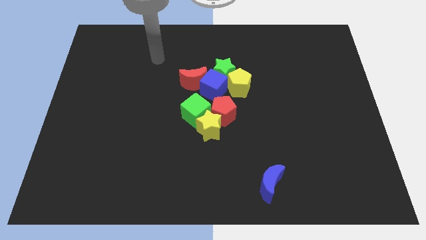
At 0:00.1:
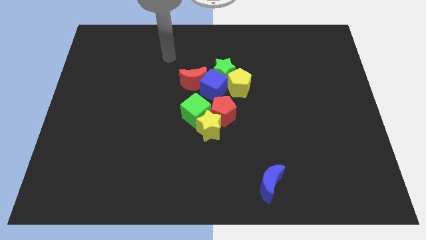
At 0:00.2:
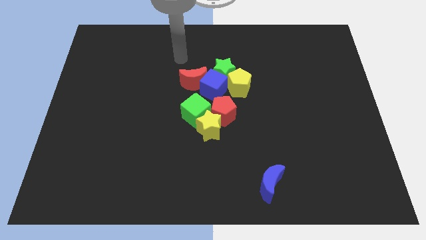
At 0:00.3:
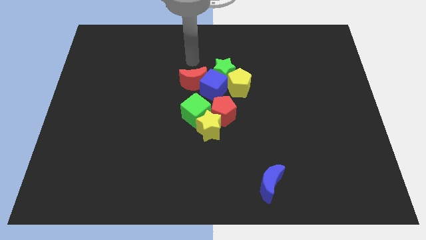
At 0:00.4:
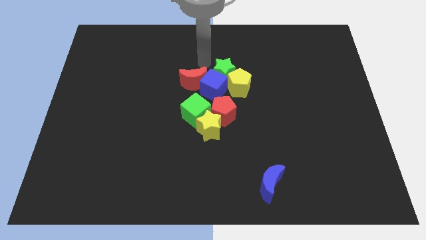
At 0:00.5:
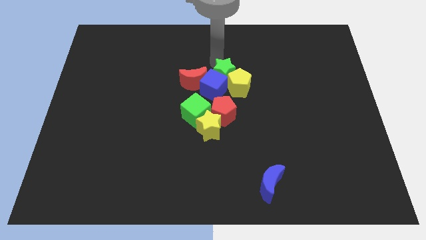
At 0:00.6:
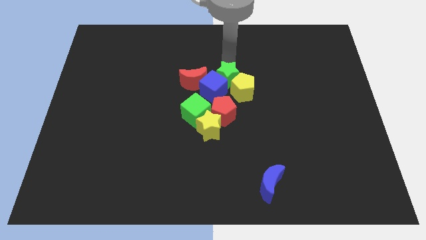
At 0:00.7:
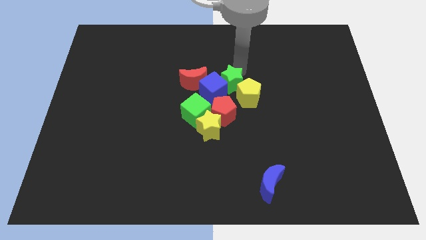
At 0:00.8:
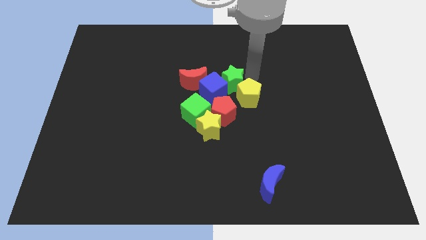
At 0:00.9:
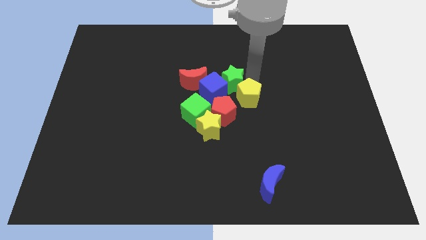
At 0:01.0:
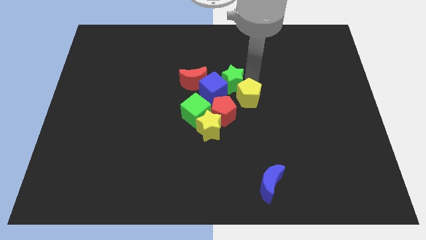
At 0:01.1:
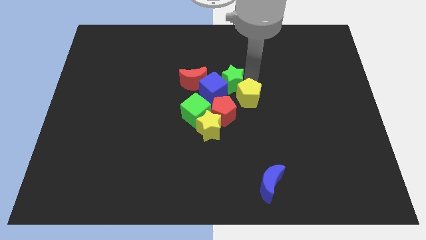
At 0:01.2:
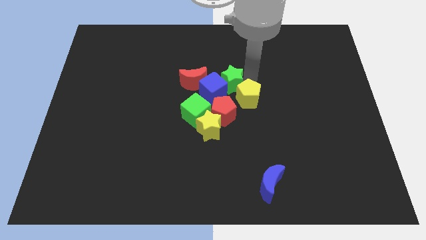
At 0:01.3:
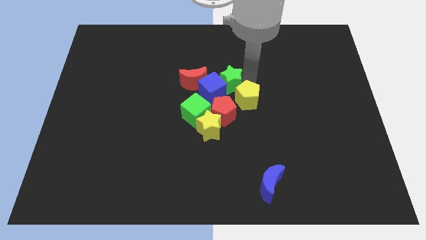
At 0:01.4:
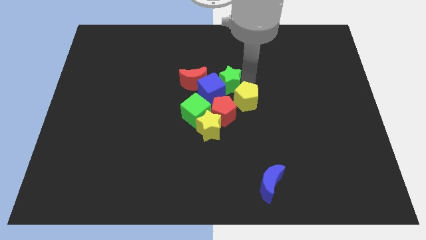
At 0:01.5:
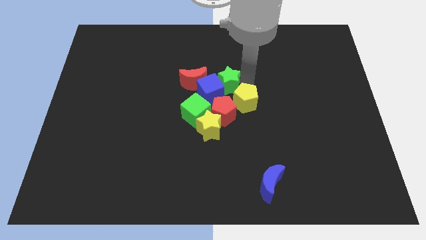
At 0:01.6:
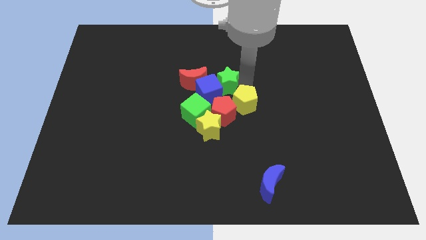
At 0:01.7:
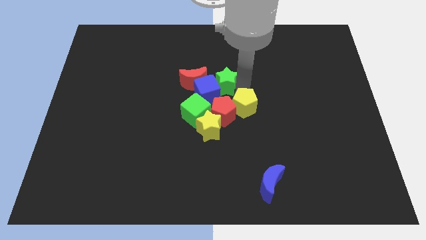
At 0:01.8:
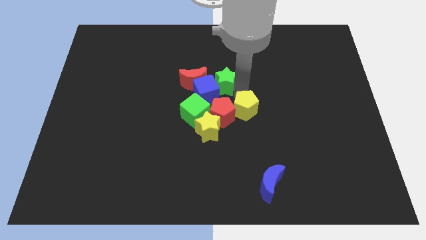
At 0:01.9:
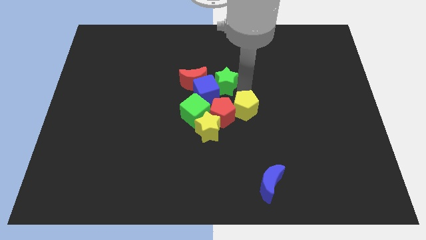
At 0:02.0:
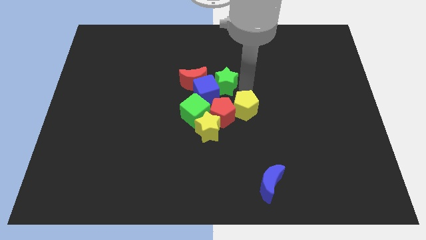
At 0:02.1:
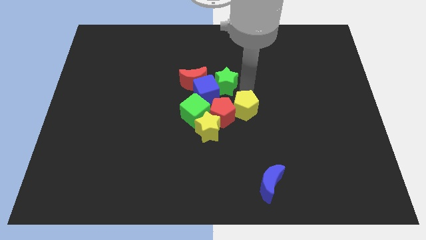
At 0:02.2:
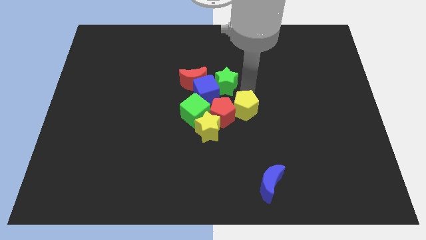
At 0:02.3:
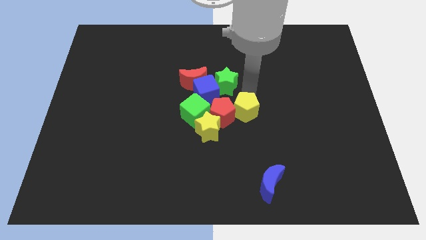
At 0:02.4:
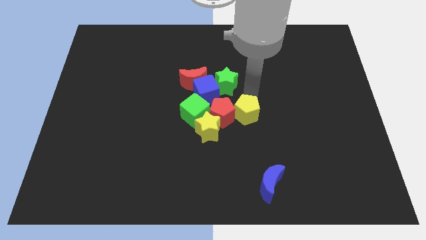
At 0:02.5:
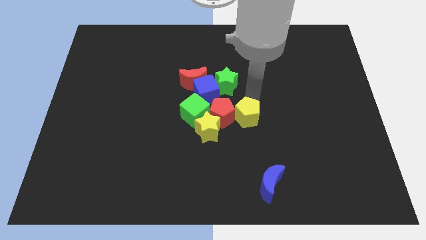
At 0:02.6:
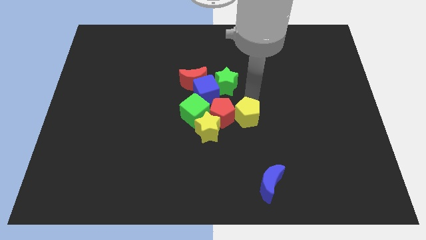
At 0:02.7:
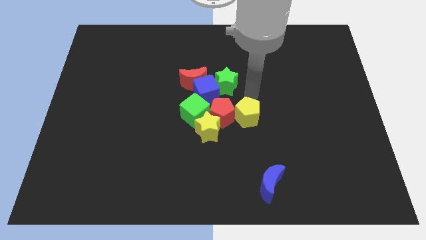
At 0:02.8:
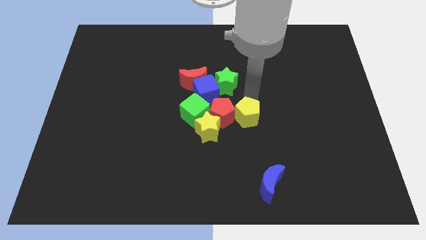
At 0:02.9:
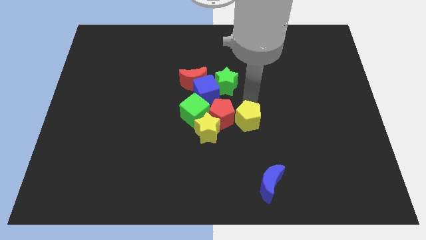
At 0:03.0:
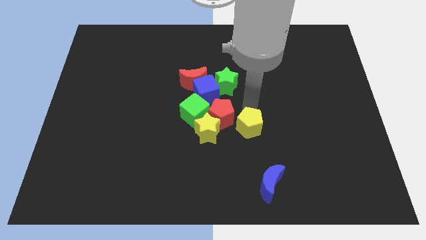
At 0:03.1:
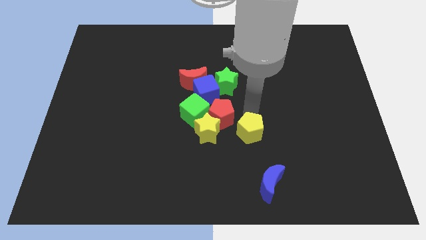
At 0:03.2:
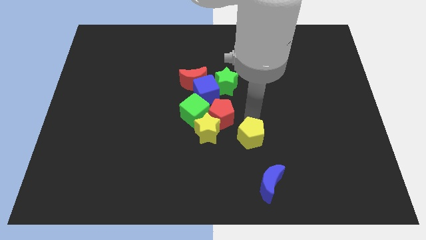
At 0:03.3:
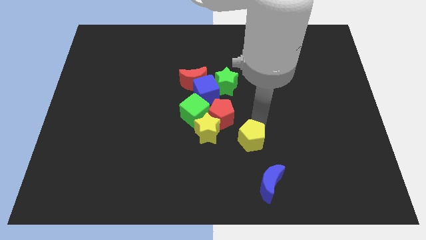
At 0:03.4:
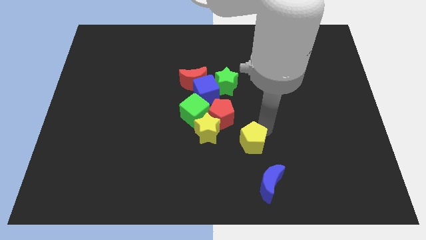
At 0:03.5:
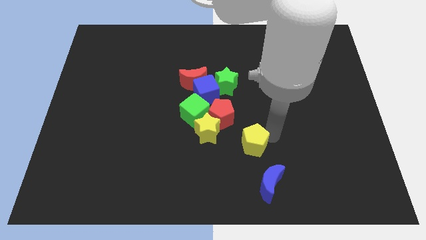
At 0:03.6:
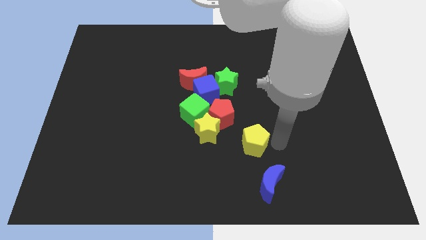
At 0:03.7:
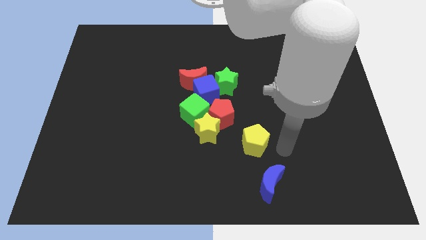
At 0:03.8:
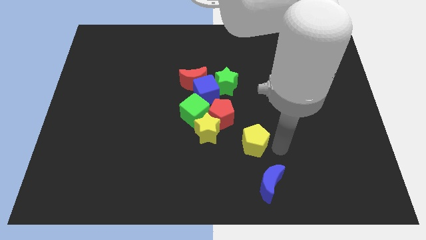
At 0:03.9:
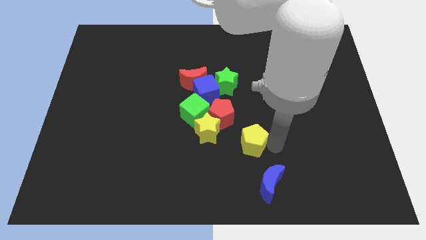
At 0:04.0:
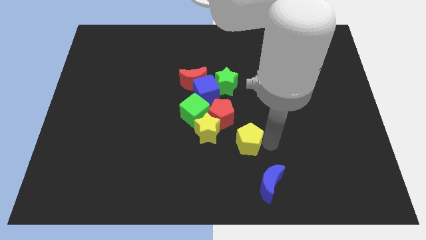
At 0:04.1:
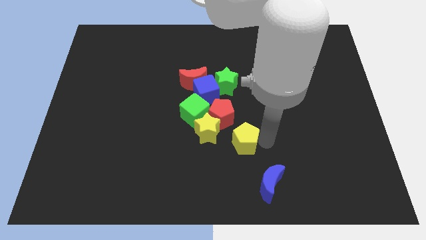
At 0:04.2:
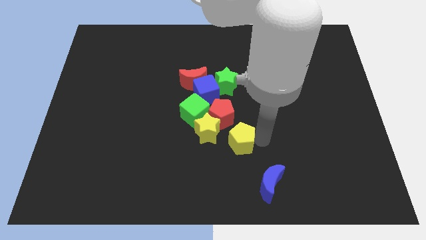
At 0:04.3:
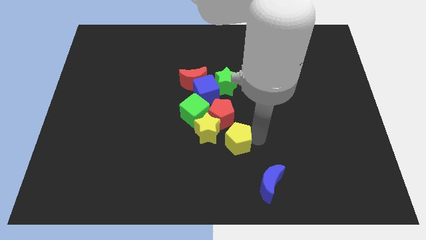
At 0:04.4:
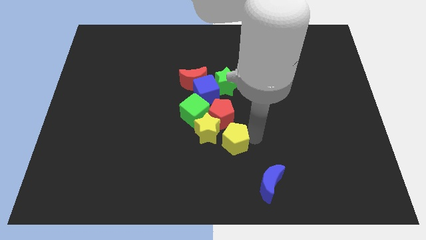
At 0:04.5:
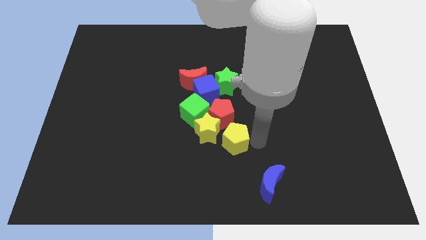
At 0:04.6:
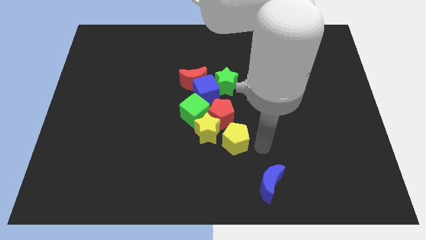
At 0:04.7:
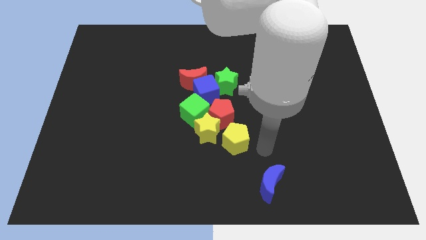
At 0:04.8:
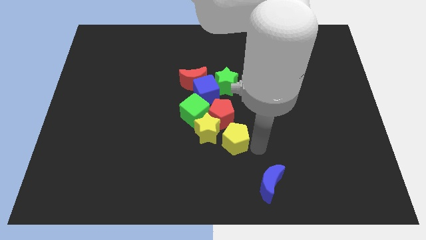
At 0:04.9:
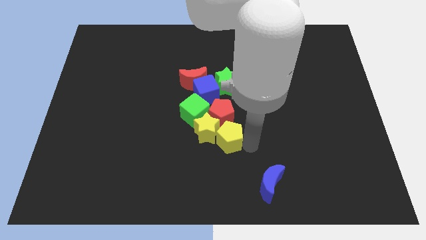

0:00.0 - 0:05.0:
put the yellow pentagon close to the yellow star

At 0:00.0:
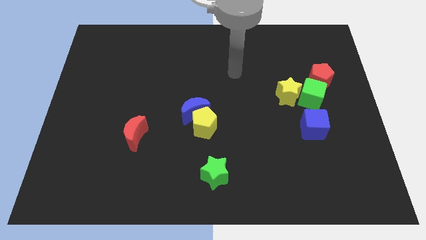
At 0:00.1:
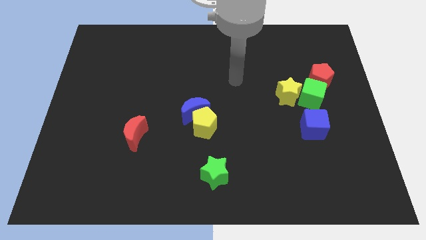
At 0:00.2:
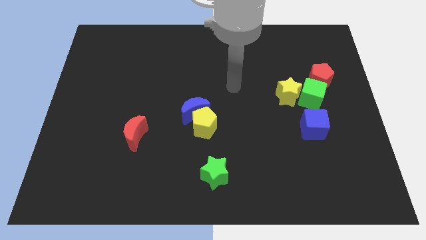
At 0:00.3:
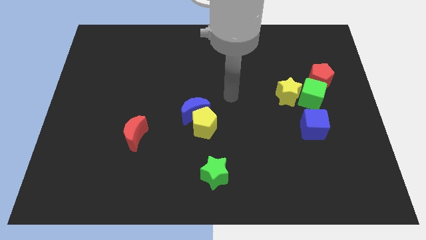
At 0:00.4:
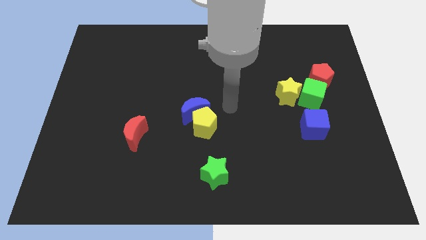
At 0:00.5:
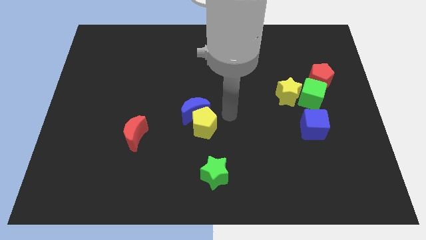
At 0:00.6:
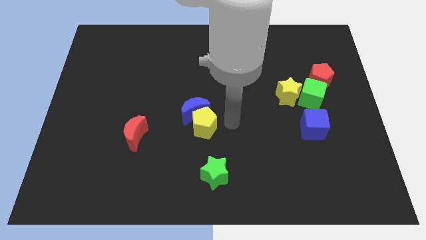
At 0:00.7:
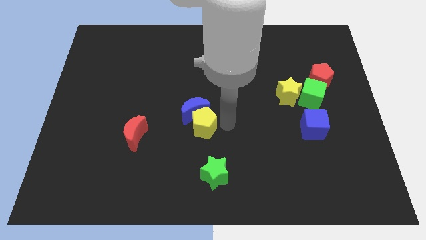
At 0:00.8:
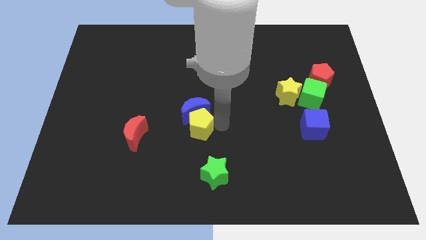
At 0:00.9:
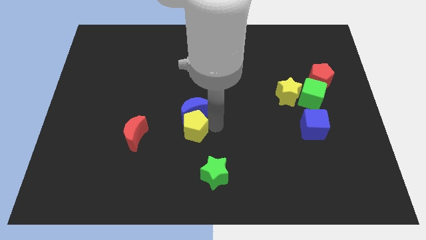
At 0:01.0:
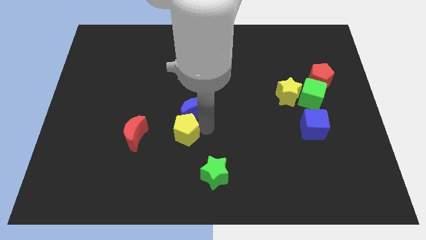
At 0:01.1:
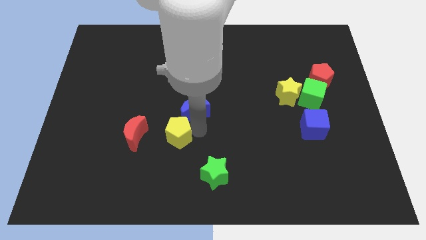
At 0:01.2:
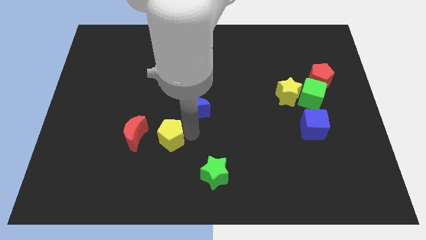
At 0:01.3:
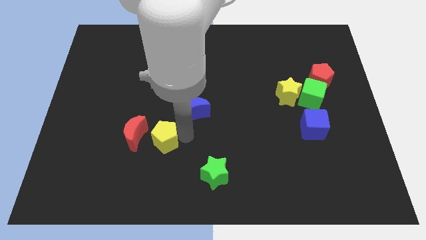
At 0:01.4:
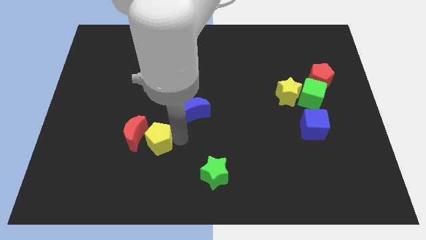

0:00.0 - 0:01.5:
push the yellow pentagon towards the red moon
